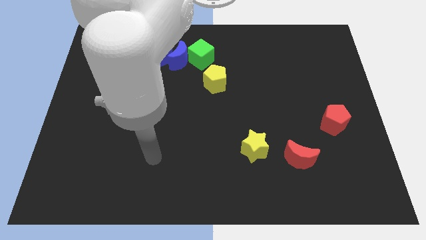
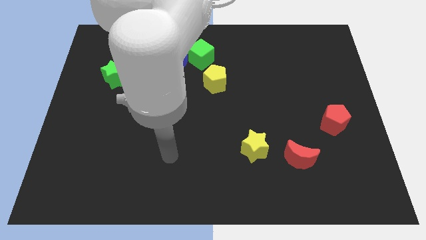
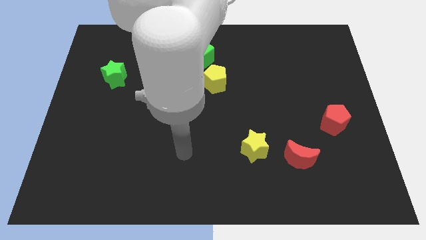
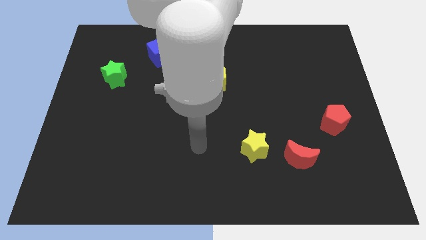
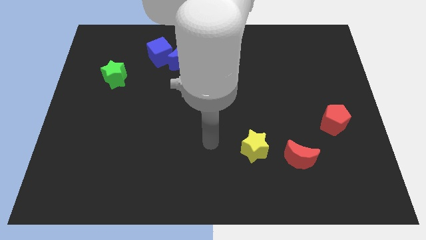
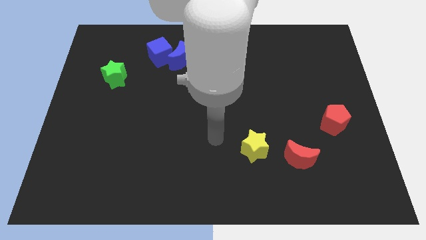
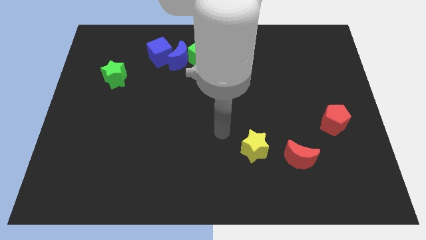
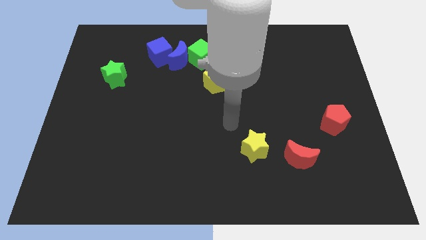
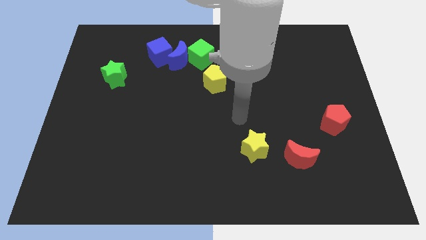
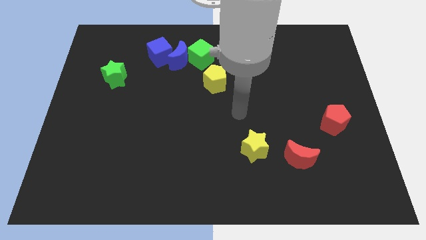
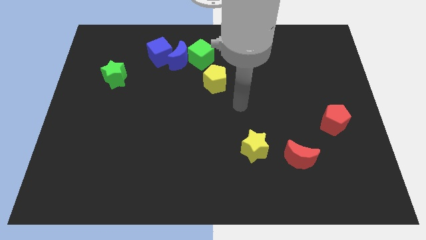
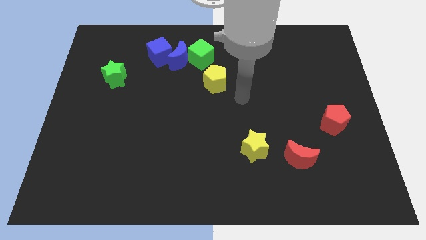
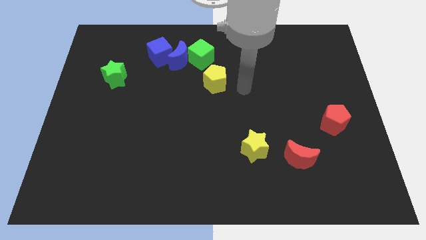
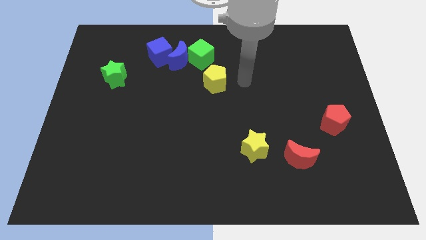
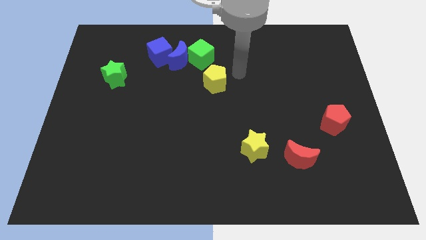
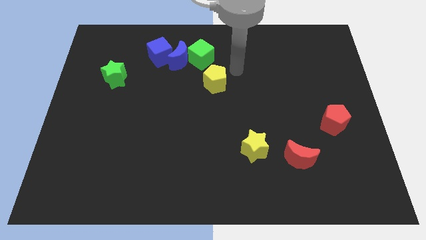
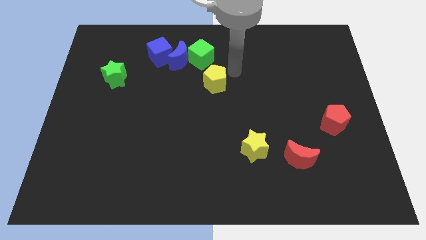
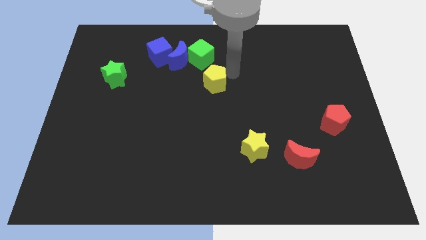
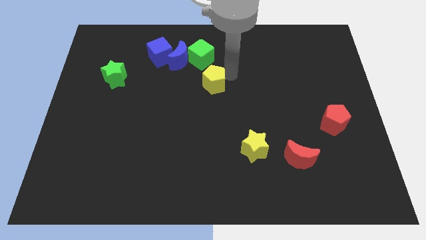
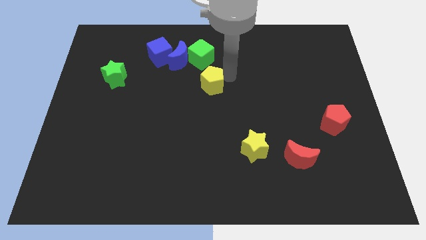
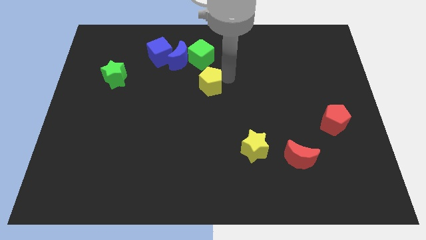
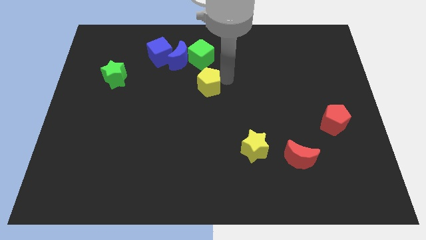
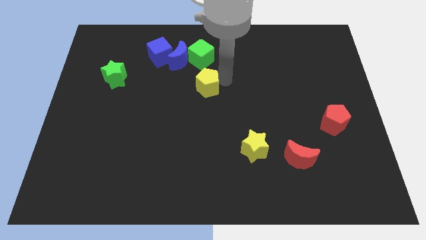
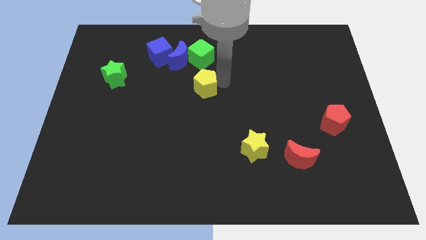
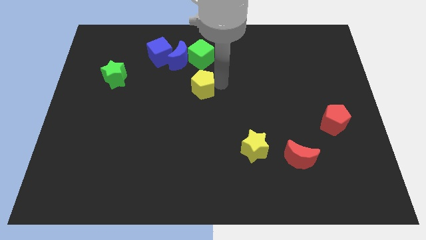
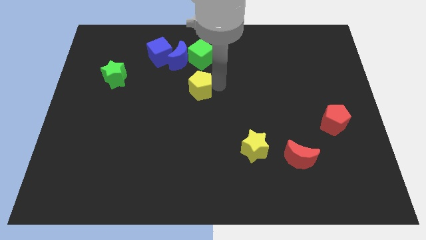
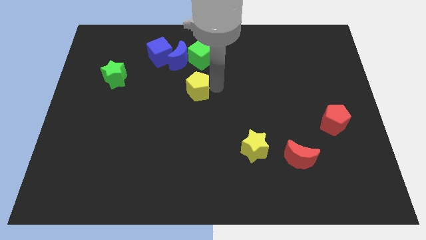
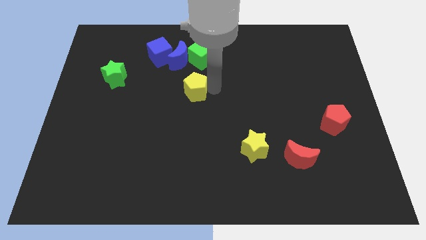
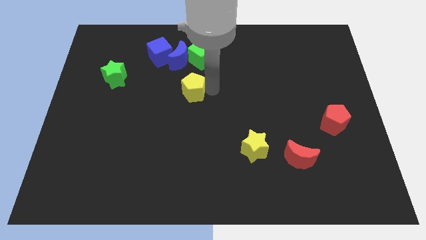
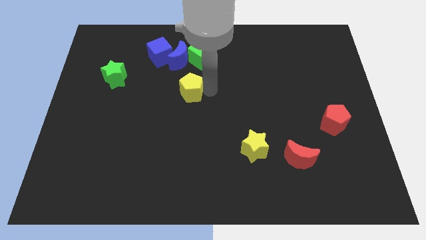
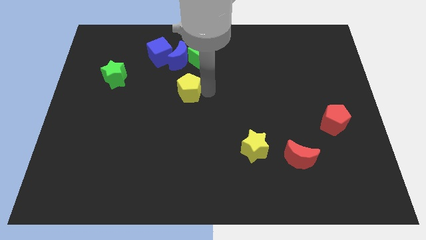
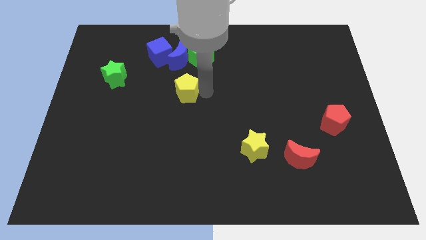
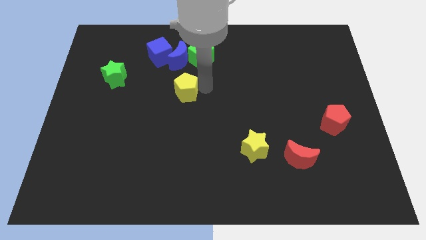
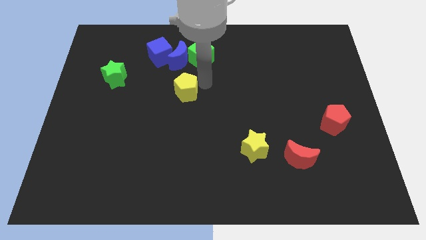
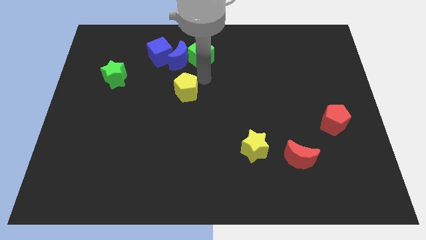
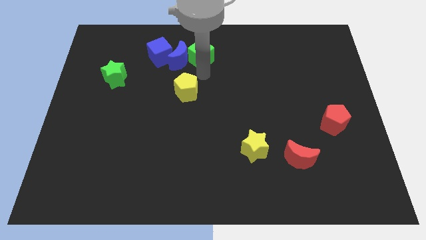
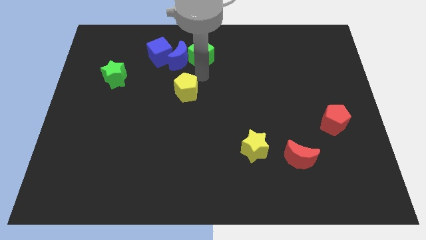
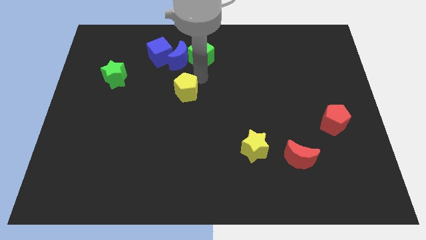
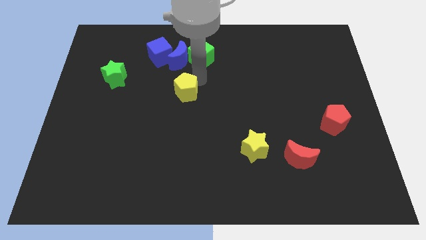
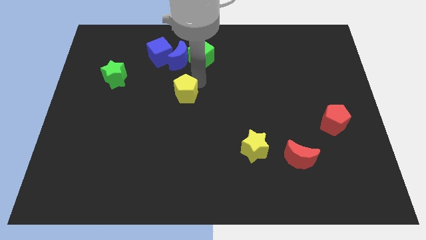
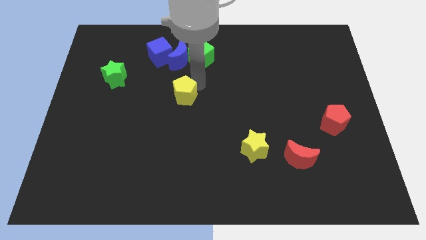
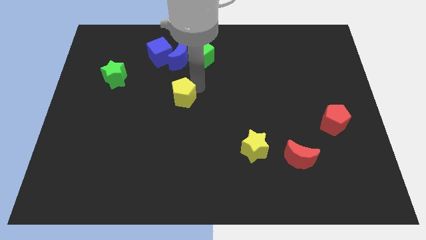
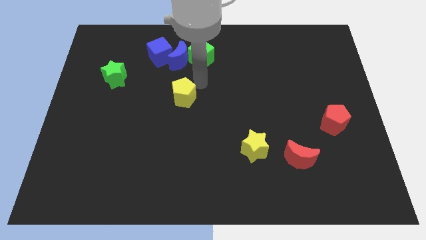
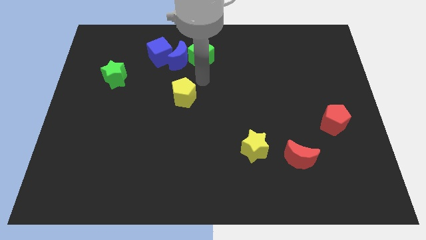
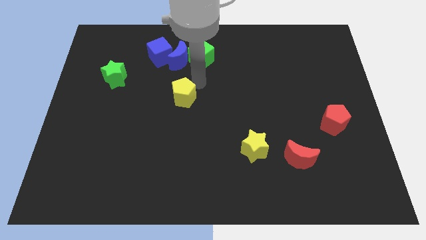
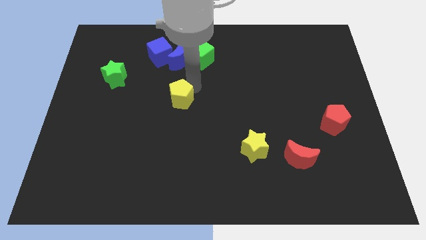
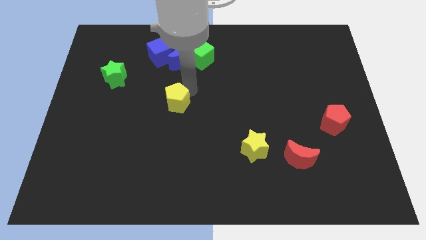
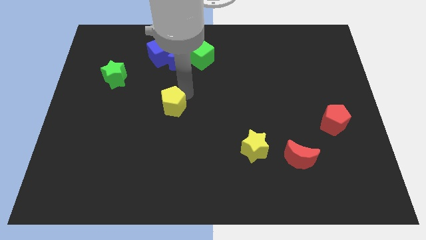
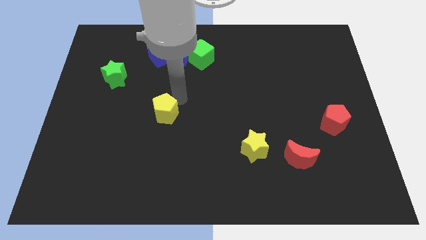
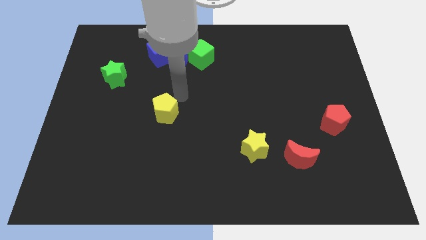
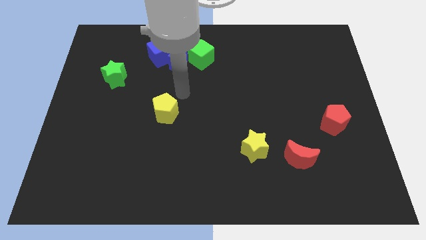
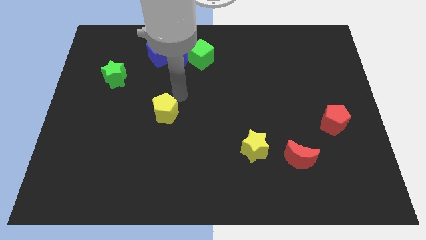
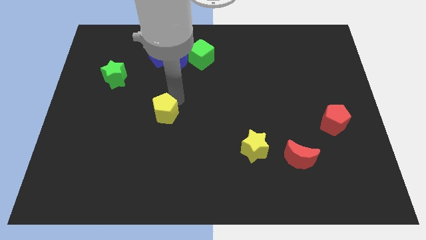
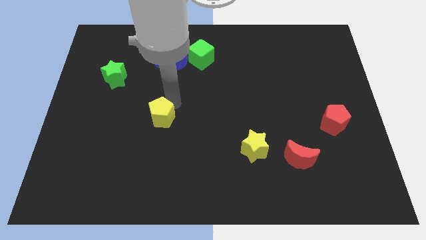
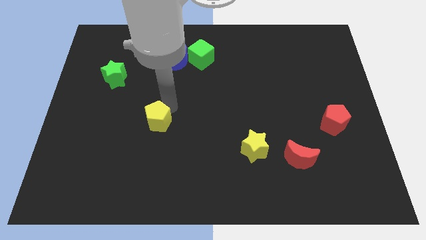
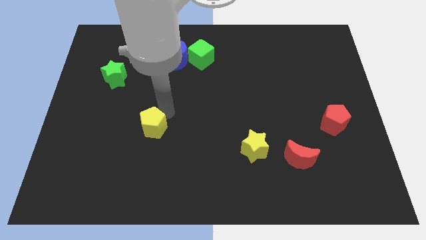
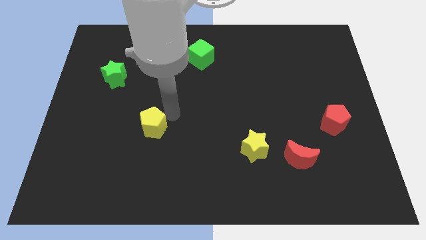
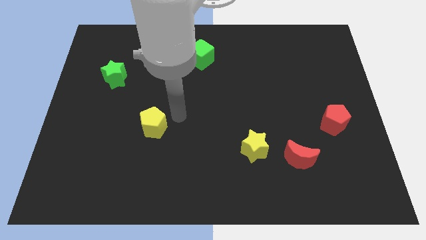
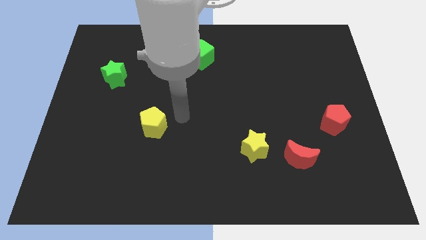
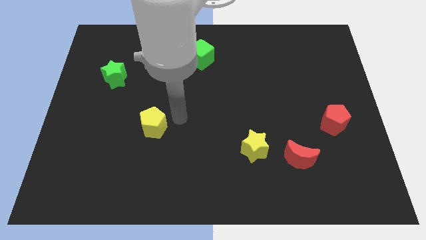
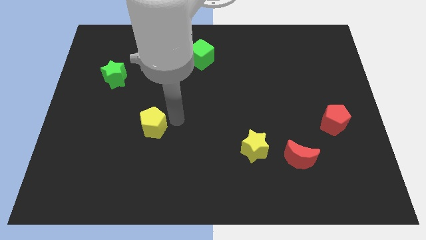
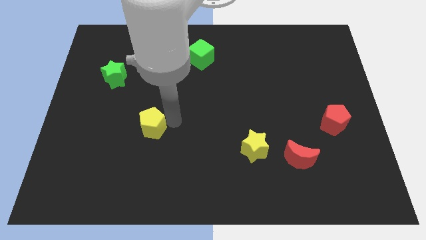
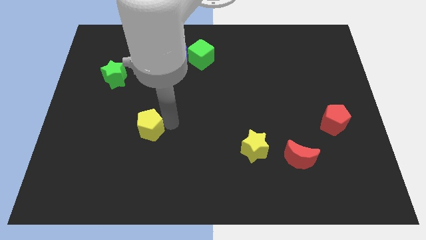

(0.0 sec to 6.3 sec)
push the yellow pentagon down and then left

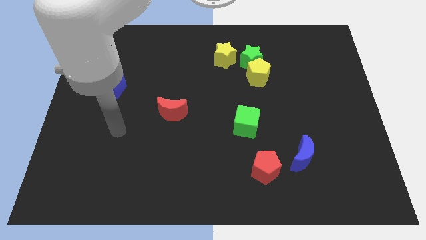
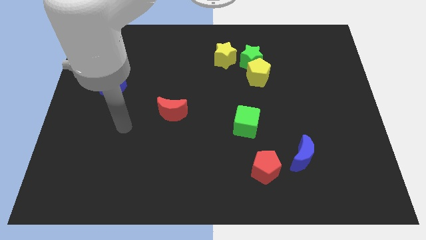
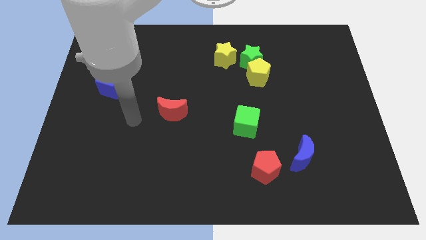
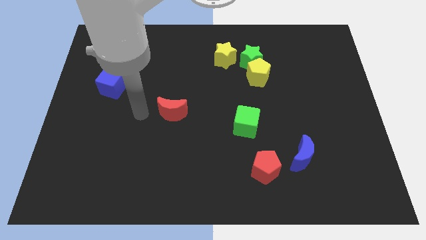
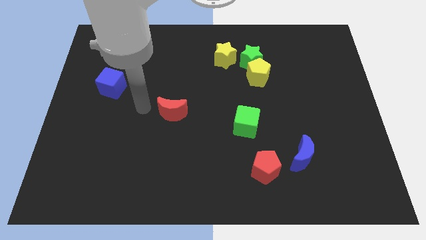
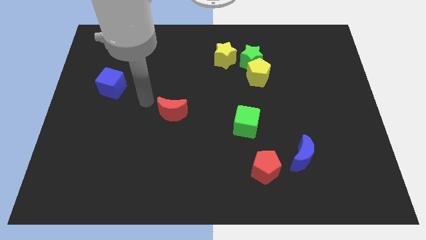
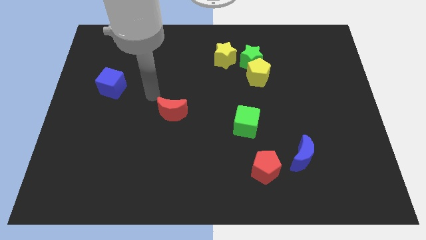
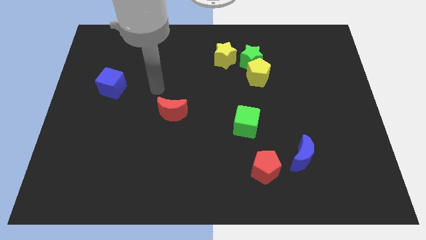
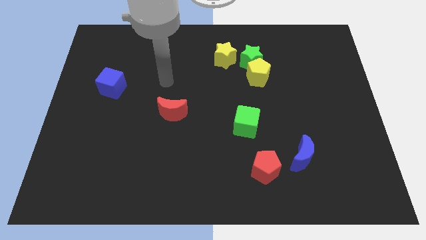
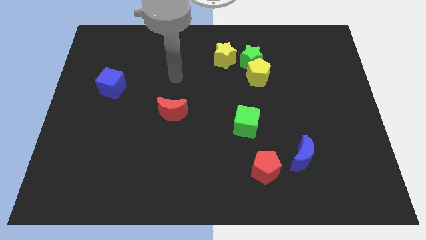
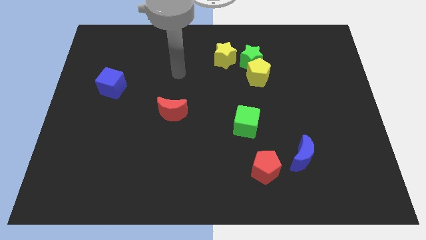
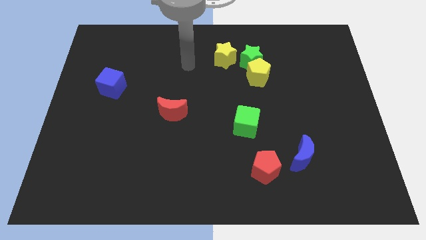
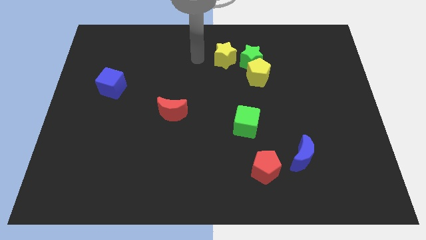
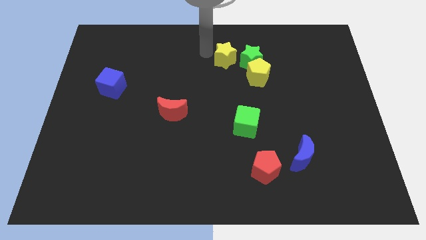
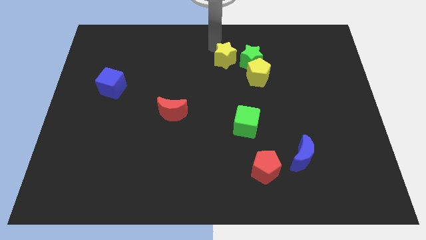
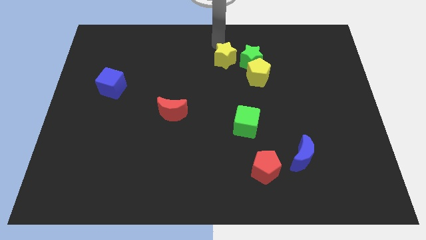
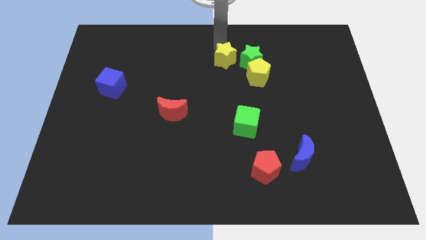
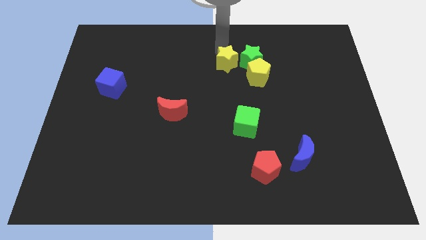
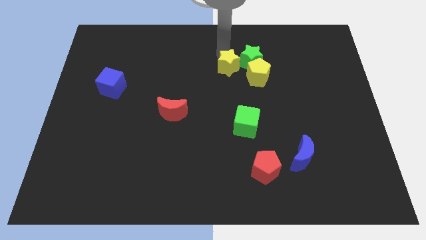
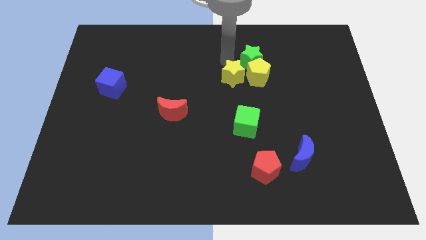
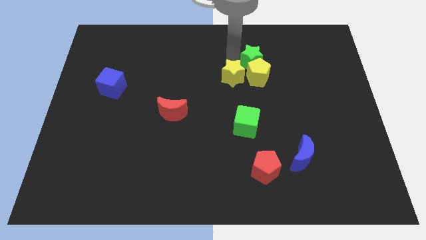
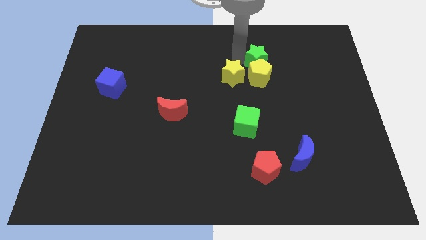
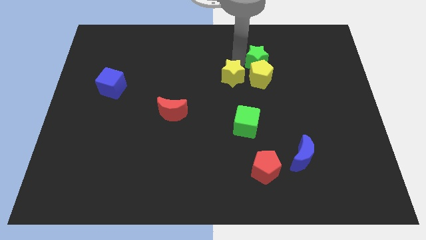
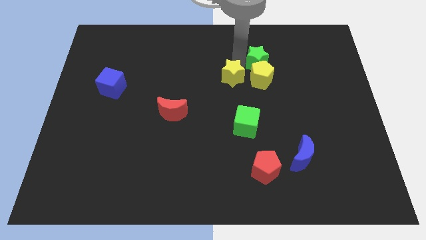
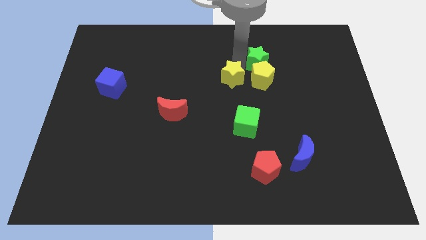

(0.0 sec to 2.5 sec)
move the yellow star slightly down
